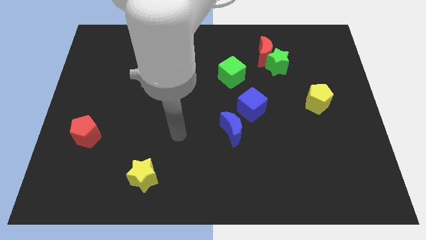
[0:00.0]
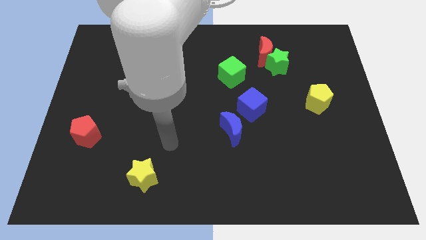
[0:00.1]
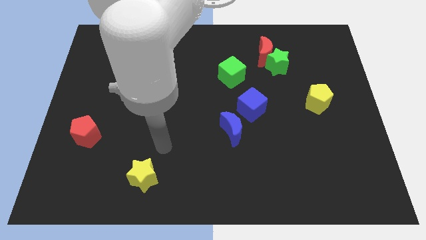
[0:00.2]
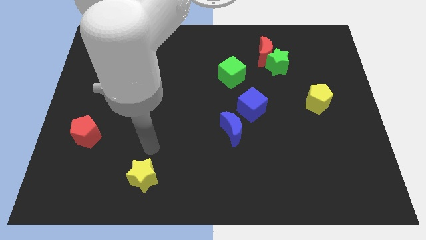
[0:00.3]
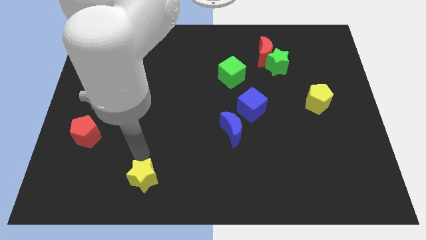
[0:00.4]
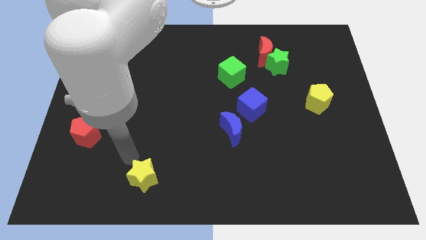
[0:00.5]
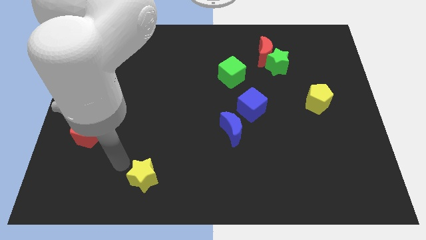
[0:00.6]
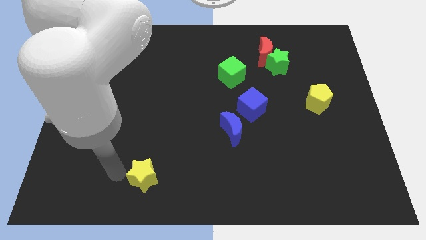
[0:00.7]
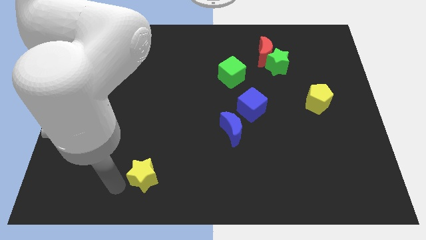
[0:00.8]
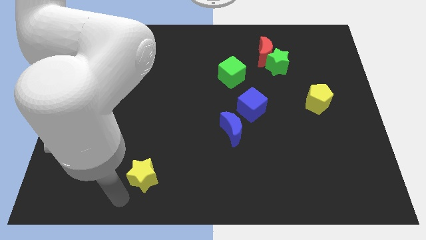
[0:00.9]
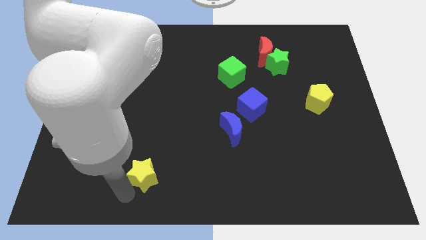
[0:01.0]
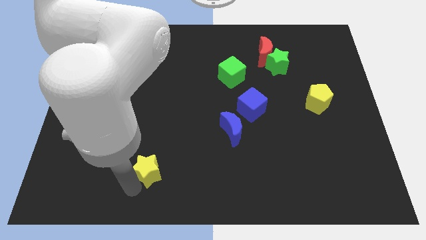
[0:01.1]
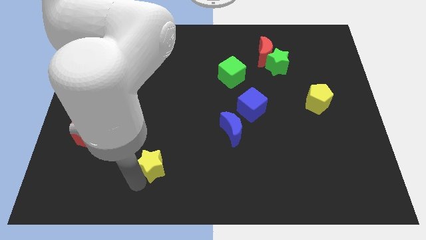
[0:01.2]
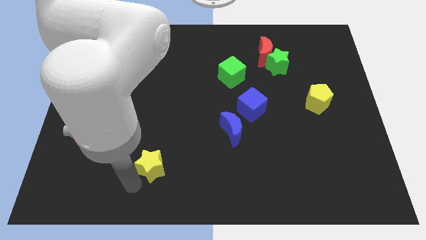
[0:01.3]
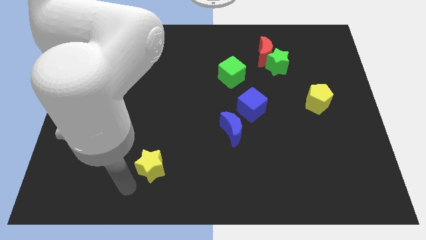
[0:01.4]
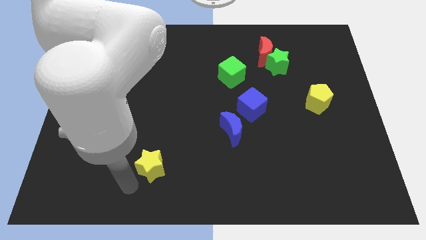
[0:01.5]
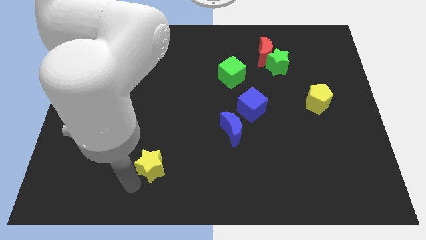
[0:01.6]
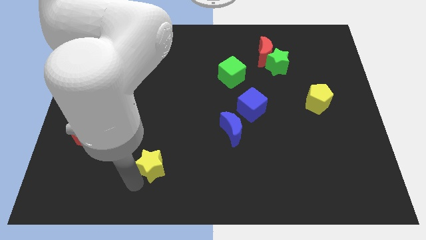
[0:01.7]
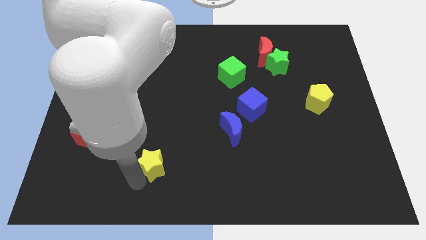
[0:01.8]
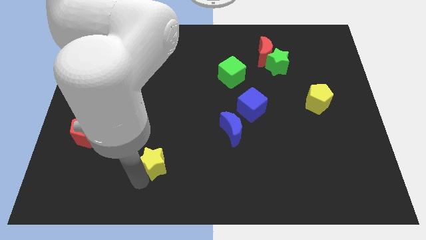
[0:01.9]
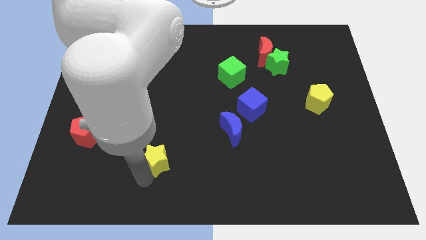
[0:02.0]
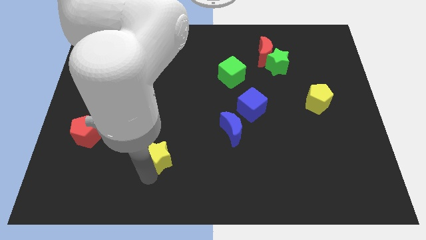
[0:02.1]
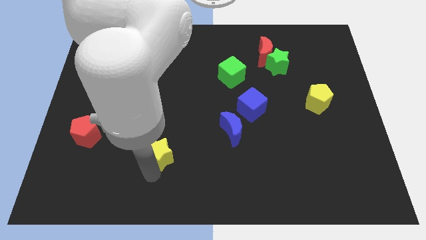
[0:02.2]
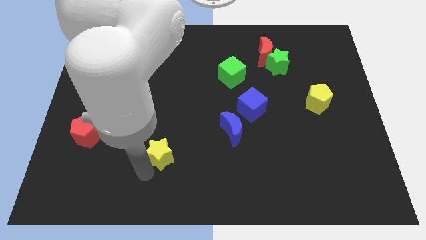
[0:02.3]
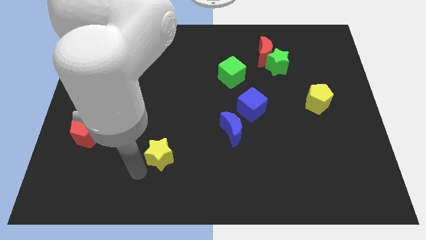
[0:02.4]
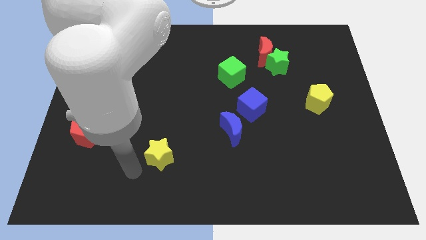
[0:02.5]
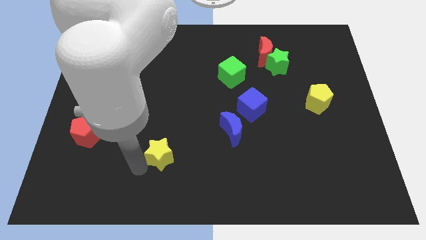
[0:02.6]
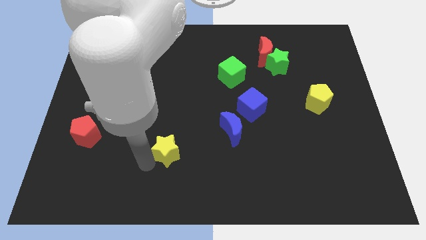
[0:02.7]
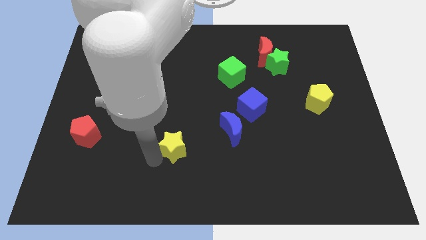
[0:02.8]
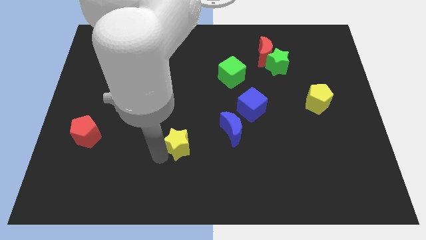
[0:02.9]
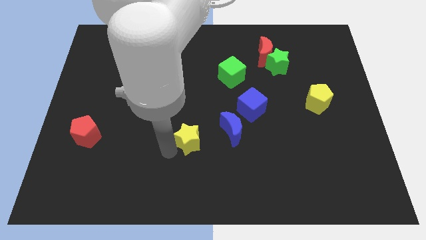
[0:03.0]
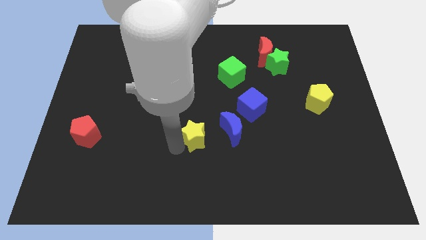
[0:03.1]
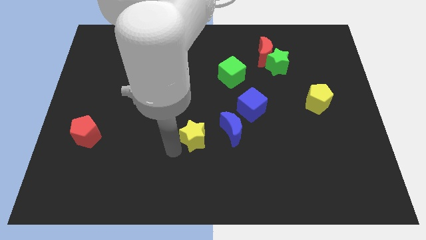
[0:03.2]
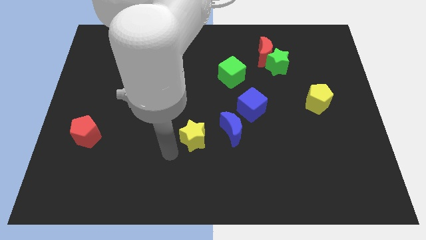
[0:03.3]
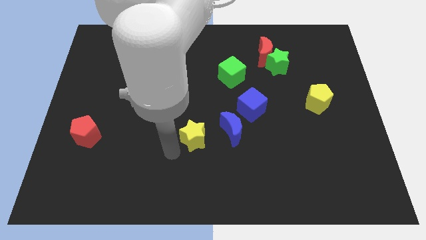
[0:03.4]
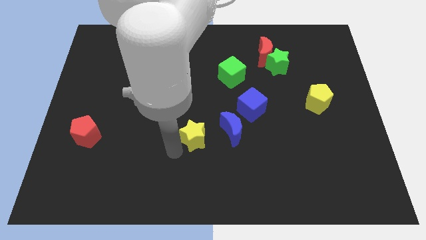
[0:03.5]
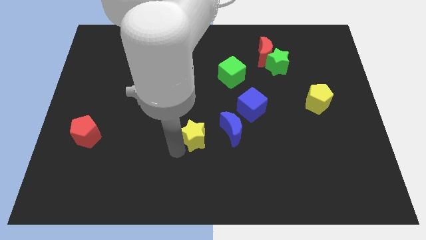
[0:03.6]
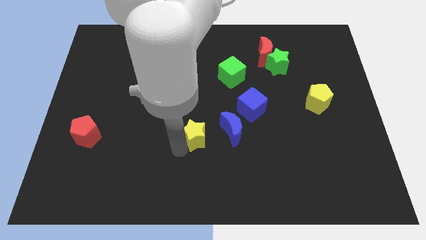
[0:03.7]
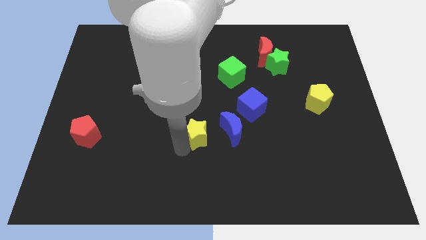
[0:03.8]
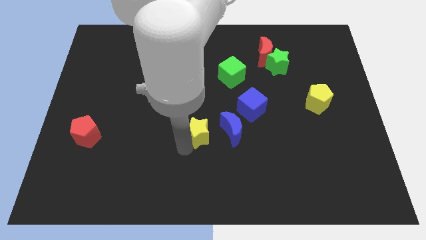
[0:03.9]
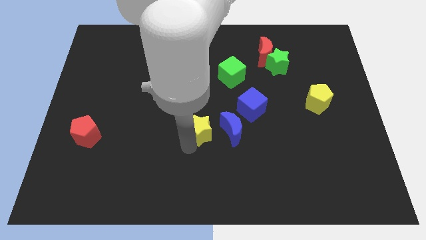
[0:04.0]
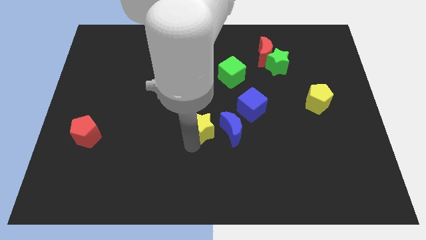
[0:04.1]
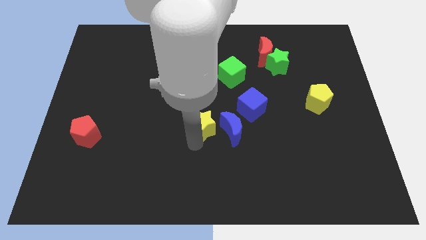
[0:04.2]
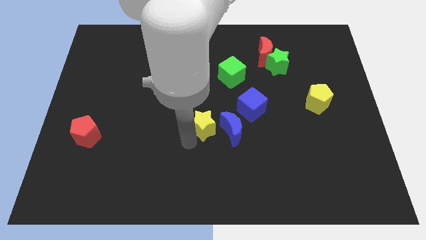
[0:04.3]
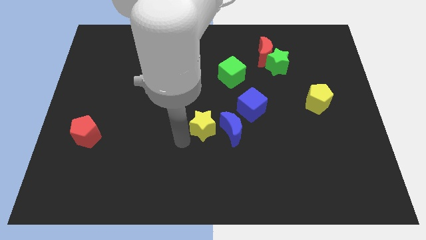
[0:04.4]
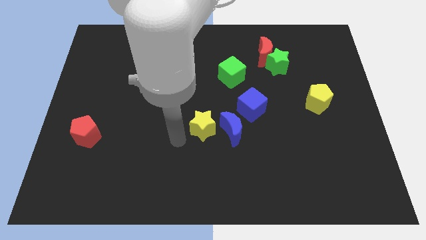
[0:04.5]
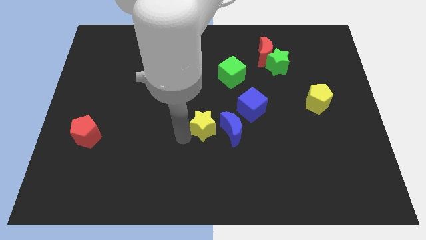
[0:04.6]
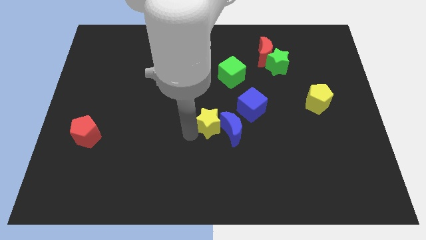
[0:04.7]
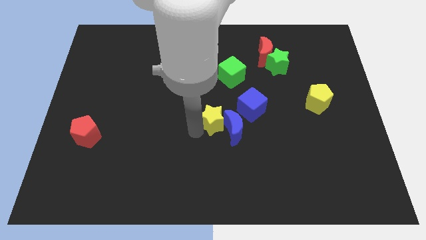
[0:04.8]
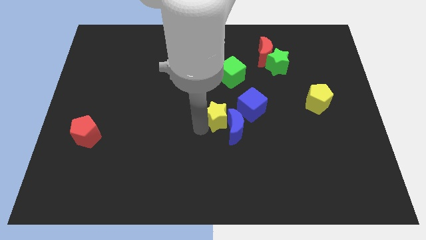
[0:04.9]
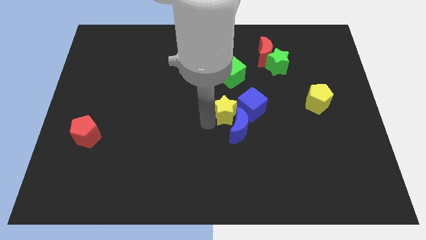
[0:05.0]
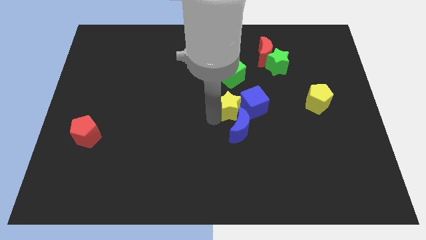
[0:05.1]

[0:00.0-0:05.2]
move the yellow star towards the blue cube

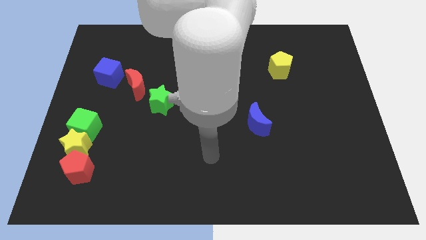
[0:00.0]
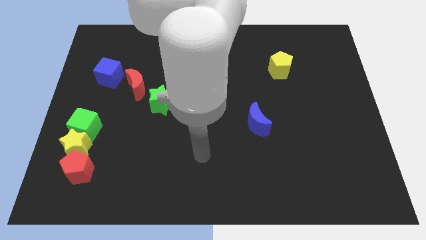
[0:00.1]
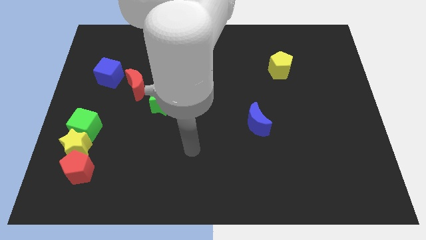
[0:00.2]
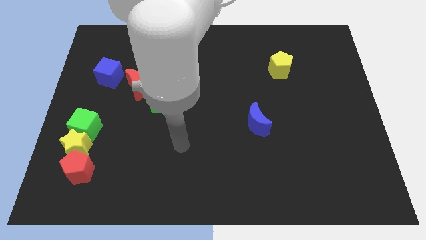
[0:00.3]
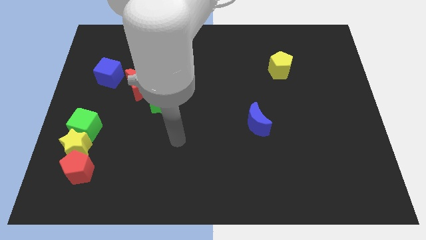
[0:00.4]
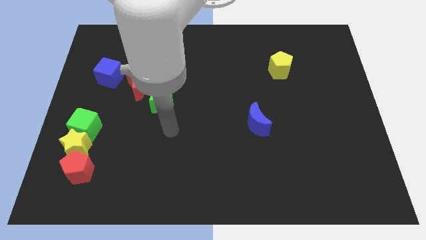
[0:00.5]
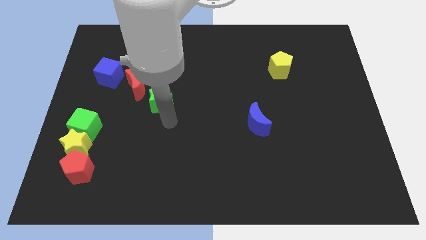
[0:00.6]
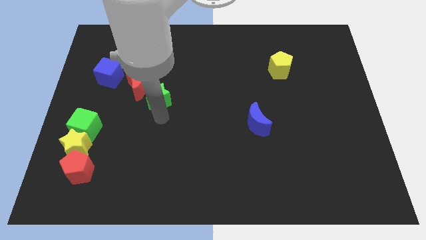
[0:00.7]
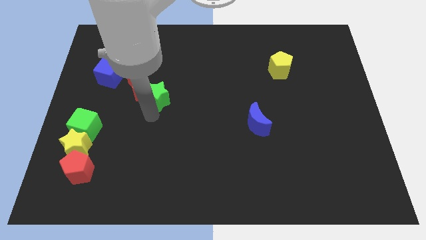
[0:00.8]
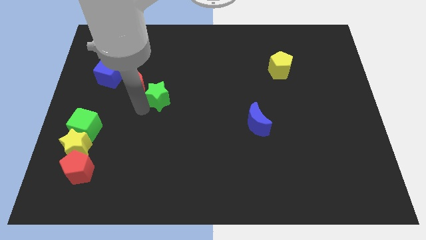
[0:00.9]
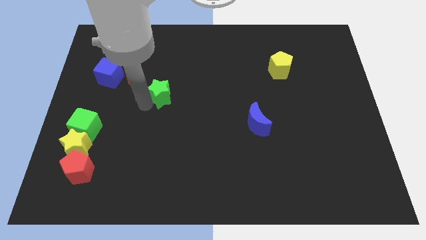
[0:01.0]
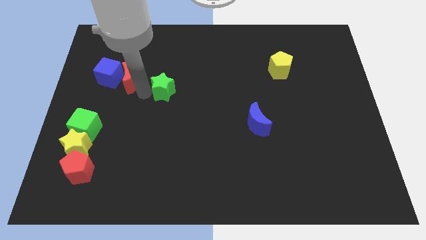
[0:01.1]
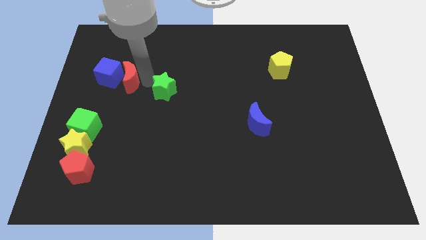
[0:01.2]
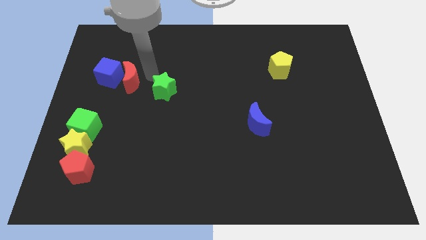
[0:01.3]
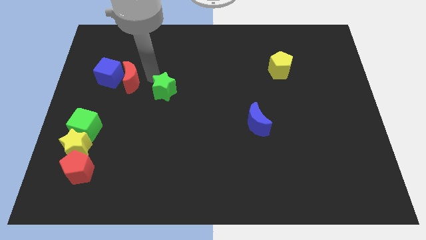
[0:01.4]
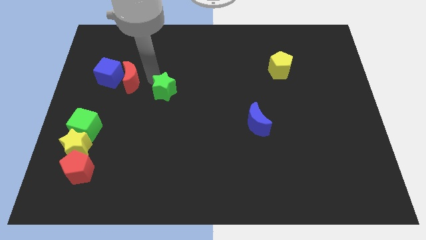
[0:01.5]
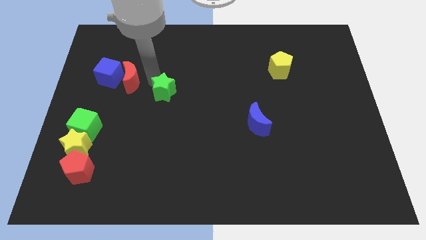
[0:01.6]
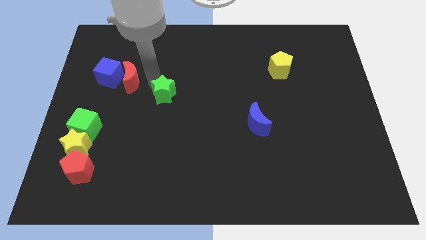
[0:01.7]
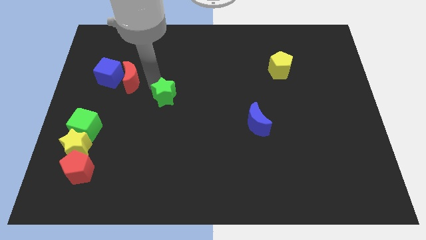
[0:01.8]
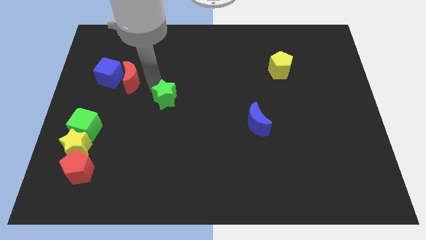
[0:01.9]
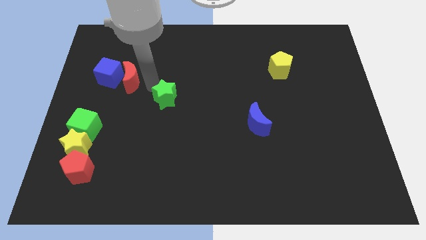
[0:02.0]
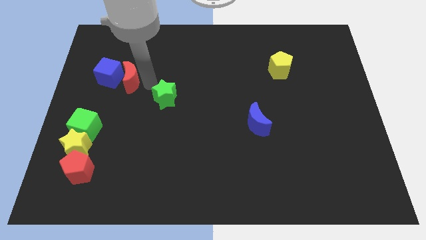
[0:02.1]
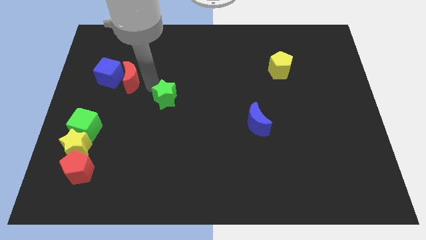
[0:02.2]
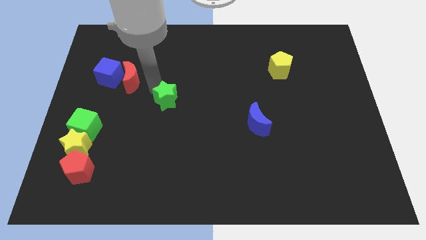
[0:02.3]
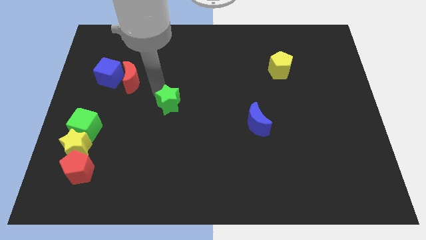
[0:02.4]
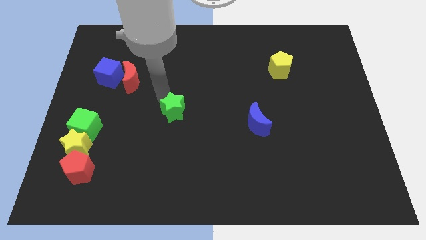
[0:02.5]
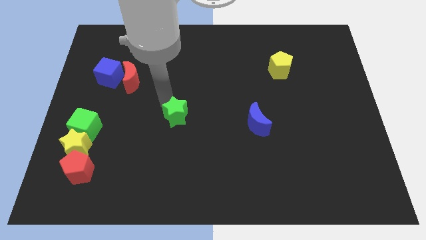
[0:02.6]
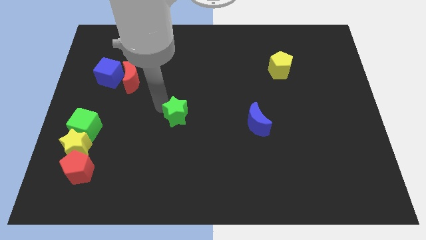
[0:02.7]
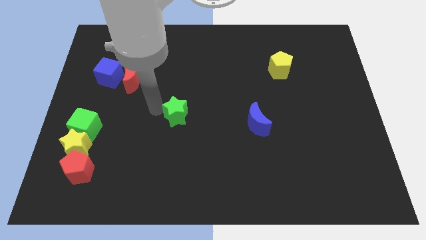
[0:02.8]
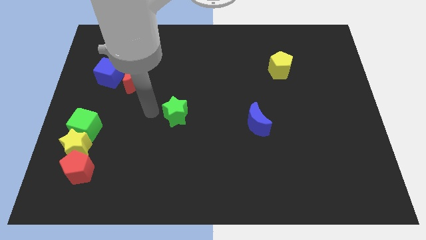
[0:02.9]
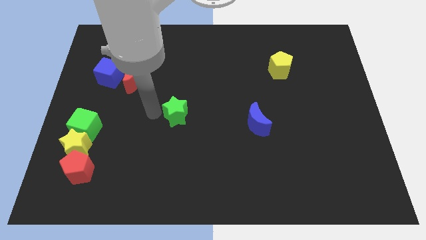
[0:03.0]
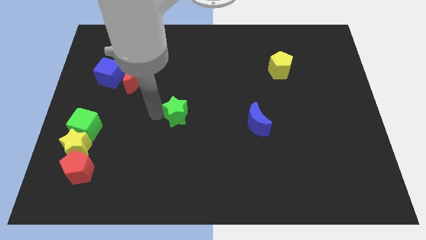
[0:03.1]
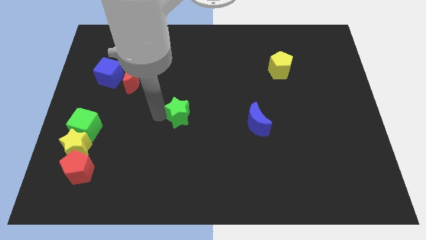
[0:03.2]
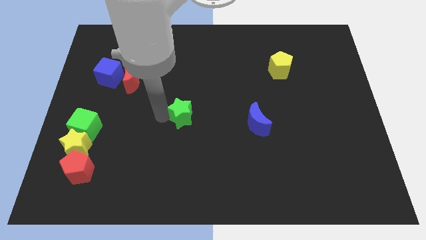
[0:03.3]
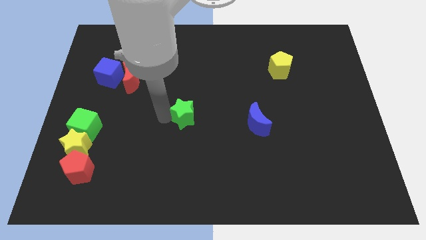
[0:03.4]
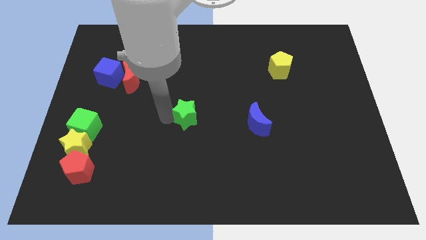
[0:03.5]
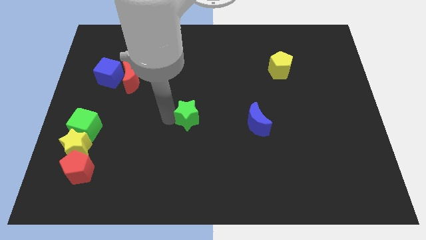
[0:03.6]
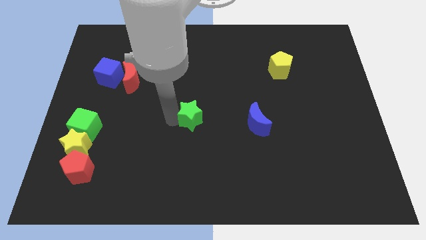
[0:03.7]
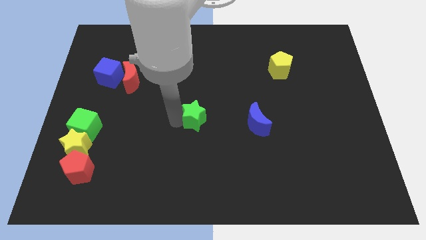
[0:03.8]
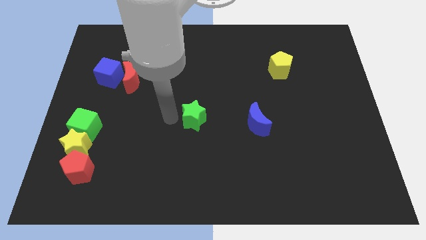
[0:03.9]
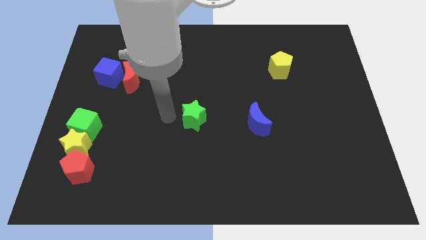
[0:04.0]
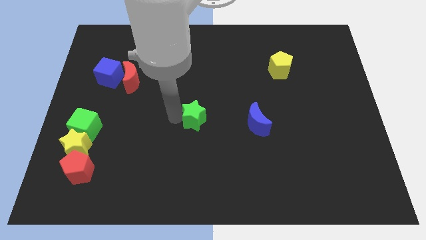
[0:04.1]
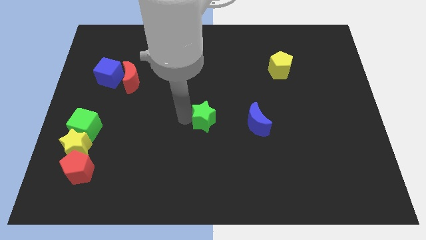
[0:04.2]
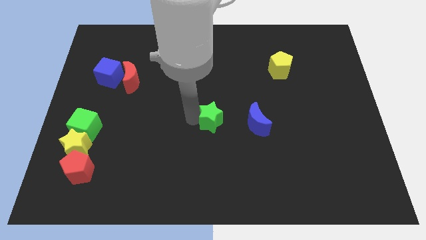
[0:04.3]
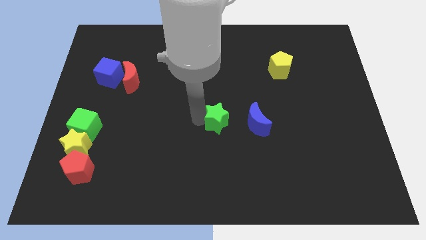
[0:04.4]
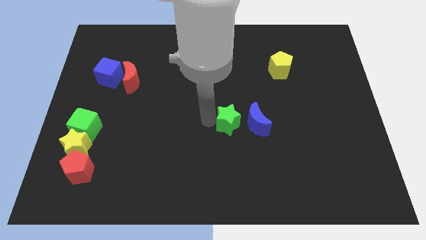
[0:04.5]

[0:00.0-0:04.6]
slide the green star next to the blue moon
